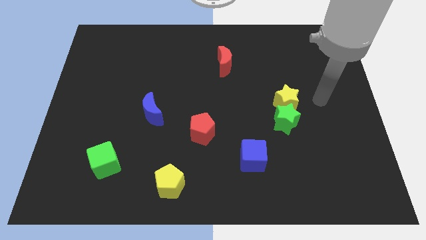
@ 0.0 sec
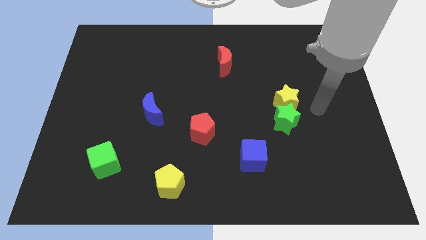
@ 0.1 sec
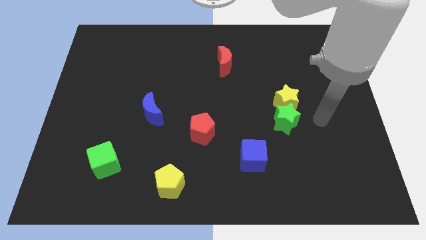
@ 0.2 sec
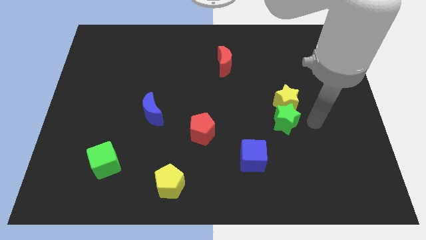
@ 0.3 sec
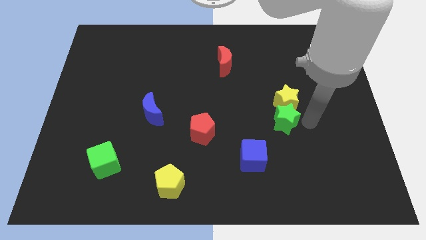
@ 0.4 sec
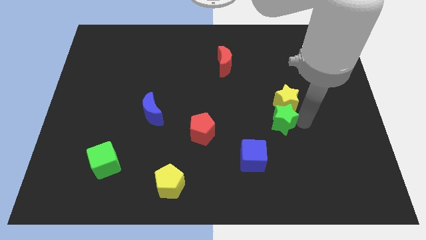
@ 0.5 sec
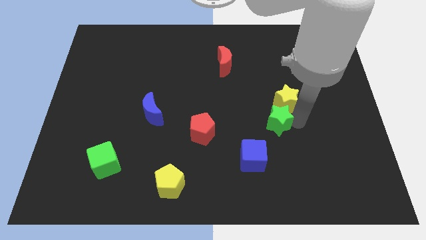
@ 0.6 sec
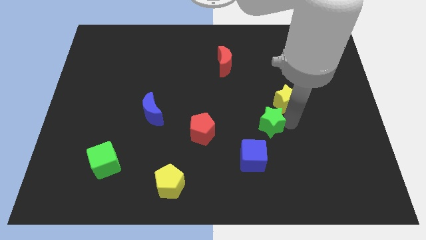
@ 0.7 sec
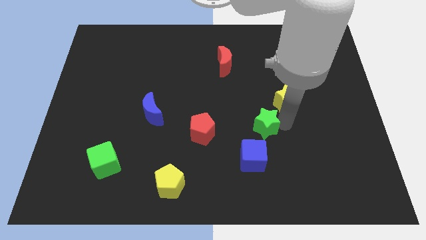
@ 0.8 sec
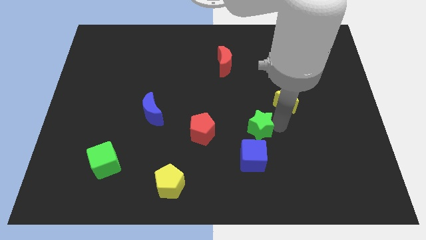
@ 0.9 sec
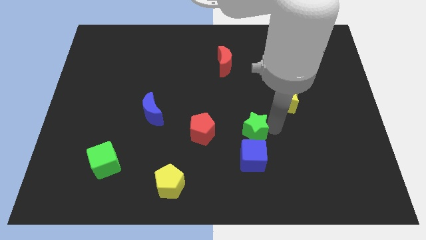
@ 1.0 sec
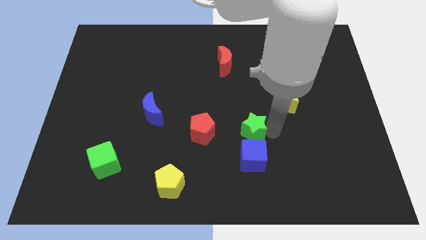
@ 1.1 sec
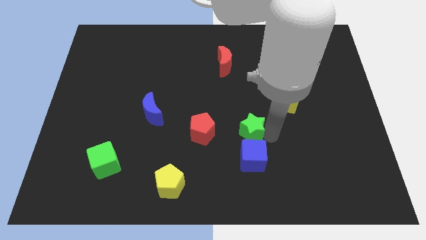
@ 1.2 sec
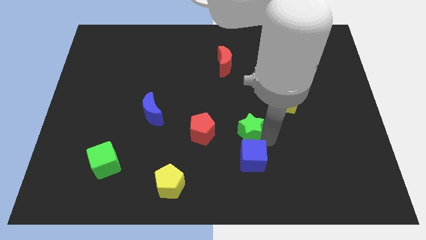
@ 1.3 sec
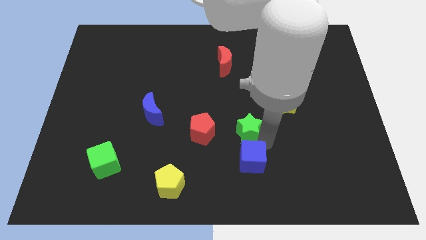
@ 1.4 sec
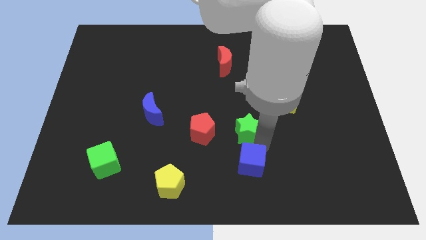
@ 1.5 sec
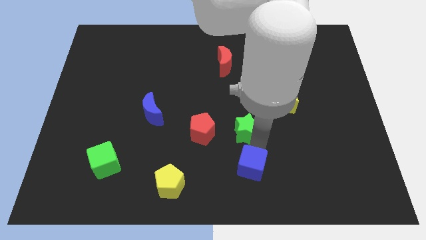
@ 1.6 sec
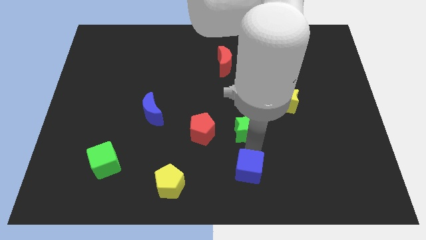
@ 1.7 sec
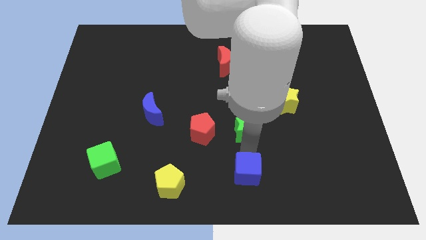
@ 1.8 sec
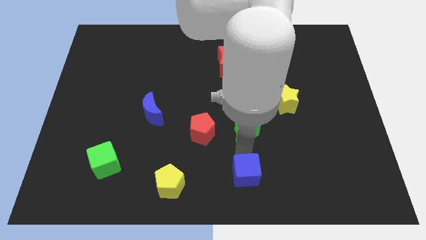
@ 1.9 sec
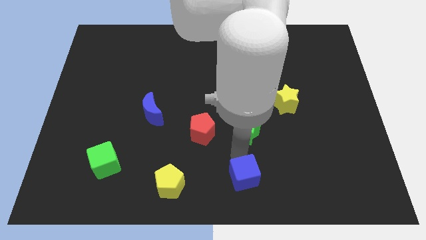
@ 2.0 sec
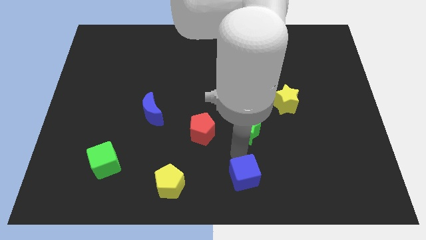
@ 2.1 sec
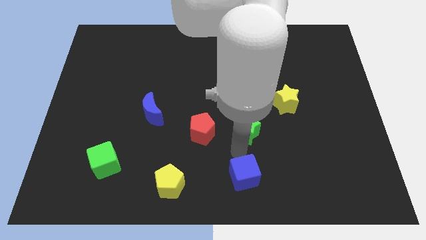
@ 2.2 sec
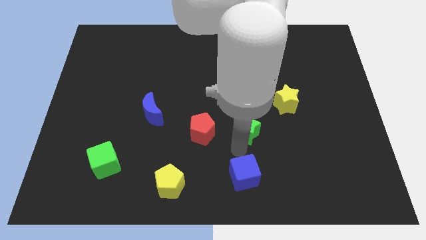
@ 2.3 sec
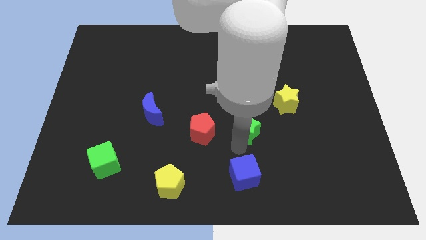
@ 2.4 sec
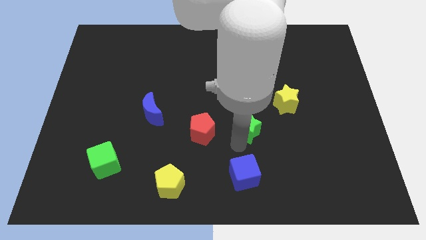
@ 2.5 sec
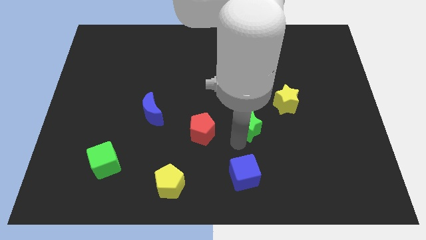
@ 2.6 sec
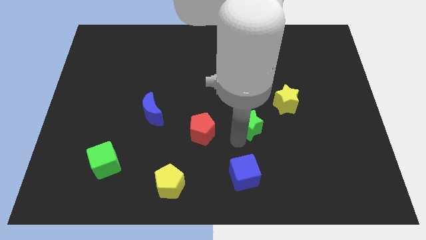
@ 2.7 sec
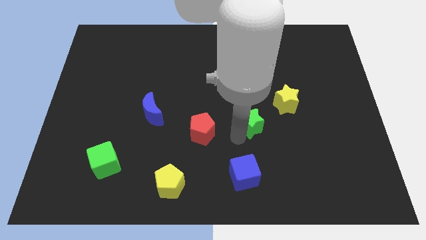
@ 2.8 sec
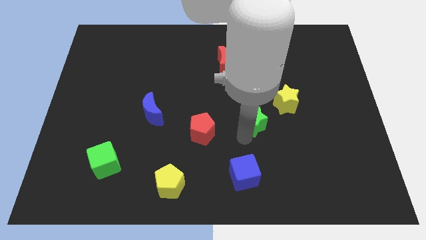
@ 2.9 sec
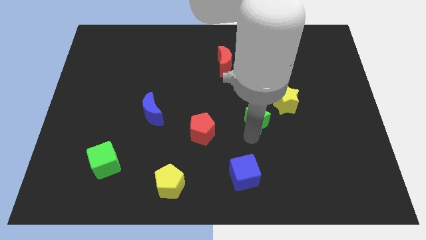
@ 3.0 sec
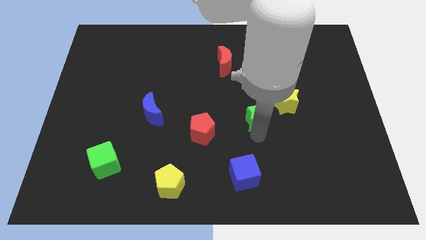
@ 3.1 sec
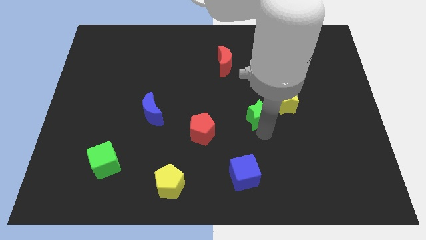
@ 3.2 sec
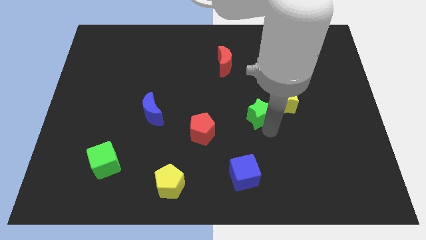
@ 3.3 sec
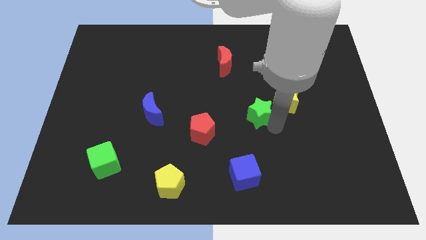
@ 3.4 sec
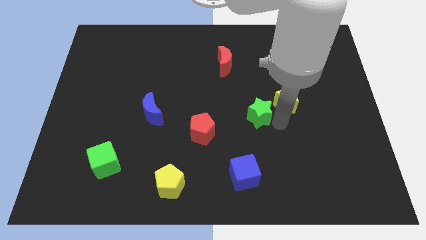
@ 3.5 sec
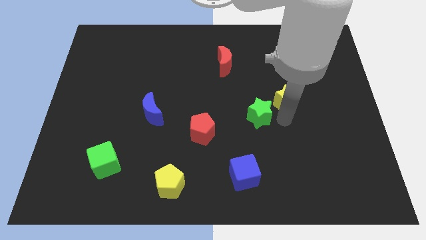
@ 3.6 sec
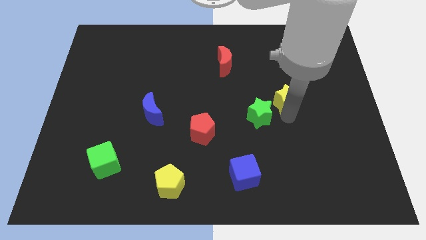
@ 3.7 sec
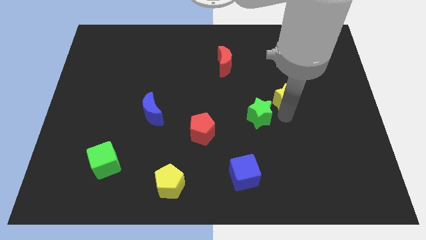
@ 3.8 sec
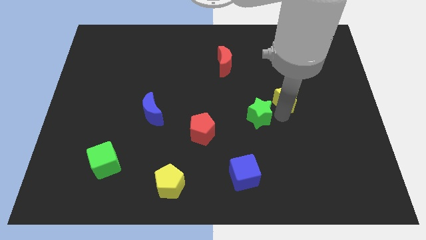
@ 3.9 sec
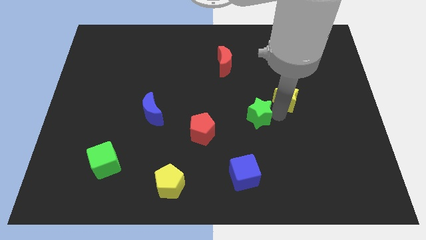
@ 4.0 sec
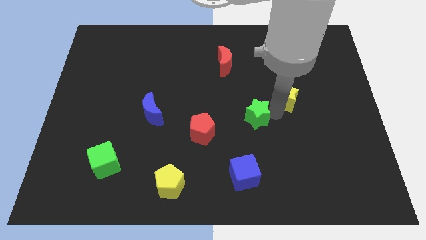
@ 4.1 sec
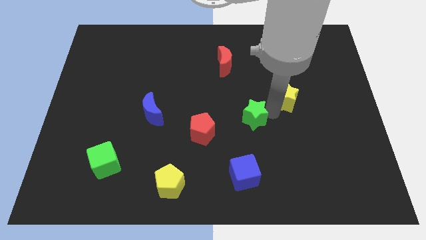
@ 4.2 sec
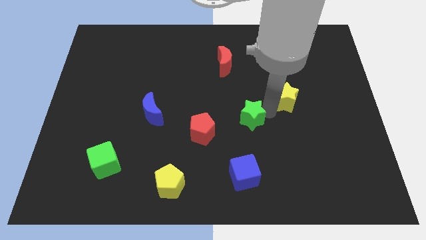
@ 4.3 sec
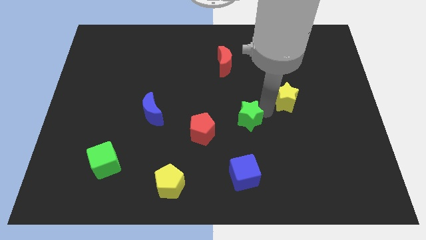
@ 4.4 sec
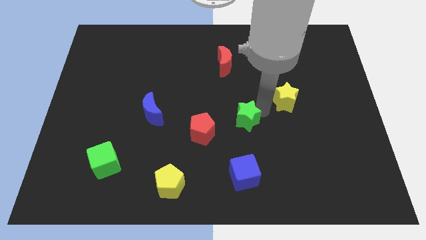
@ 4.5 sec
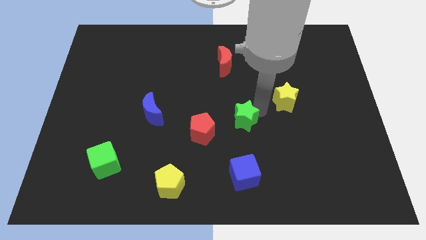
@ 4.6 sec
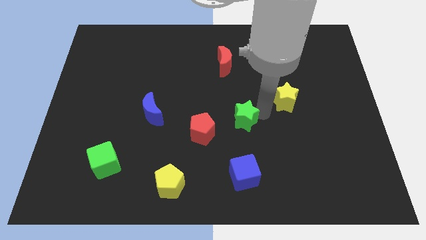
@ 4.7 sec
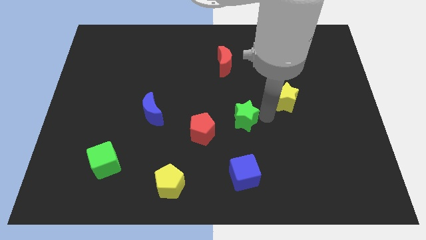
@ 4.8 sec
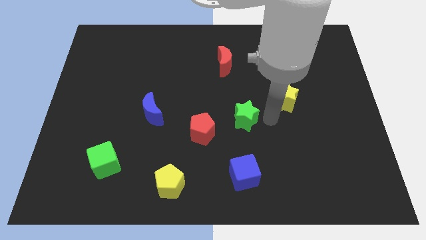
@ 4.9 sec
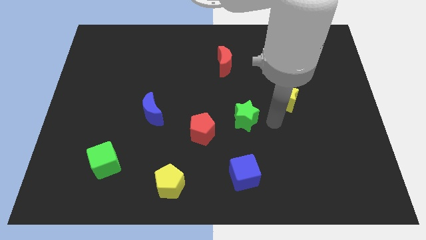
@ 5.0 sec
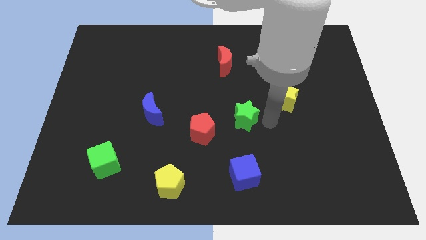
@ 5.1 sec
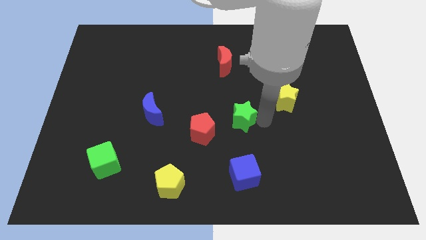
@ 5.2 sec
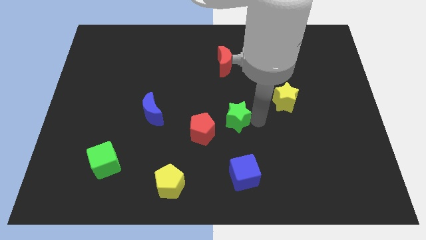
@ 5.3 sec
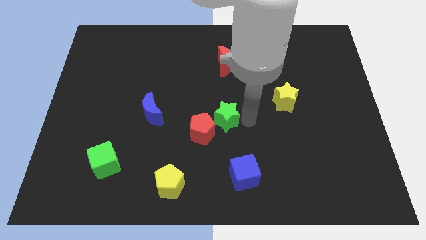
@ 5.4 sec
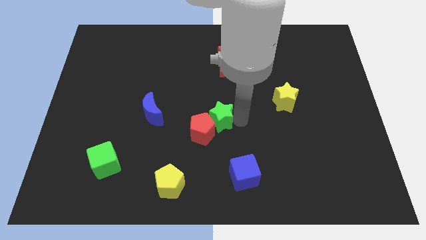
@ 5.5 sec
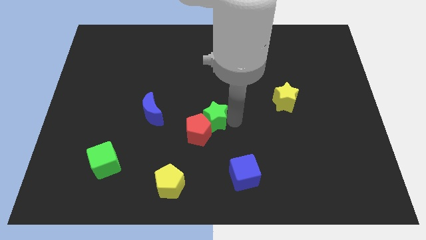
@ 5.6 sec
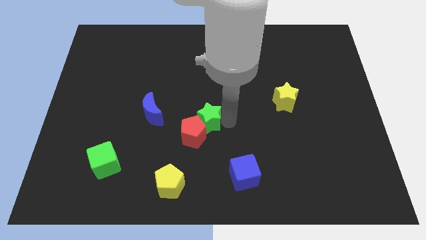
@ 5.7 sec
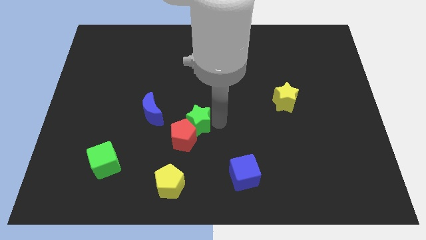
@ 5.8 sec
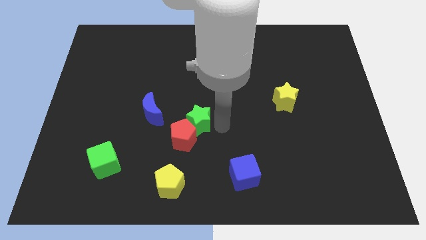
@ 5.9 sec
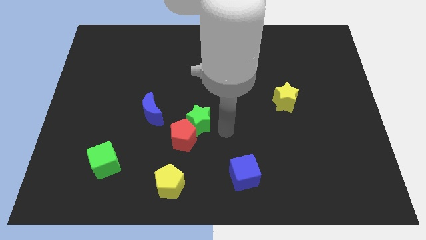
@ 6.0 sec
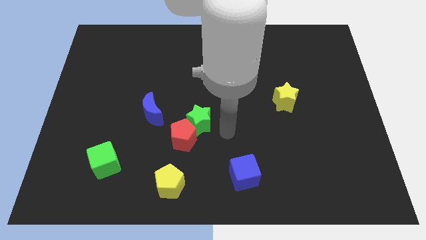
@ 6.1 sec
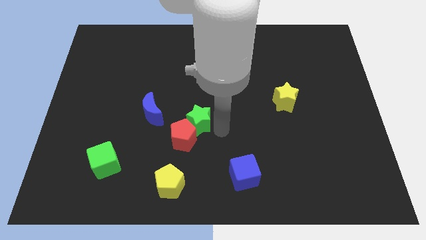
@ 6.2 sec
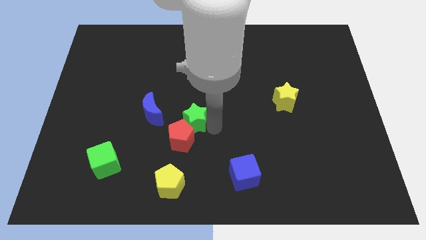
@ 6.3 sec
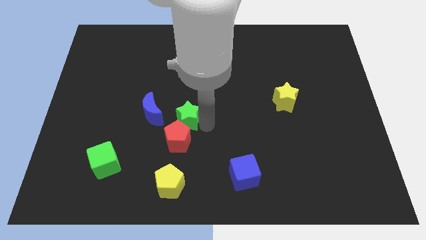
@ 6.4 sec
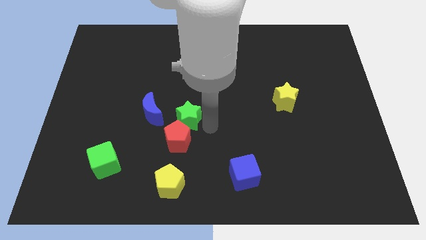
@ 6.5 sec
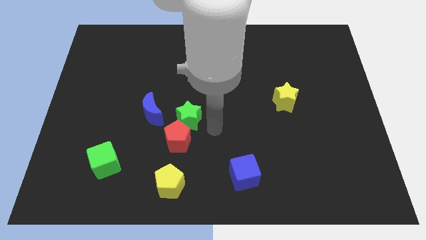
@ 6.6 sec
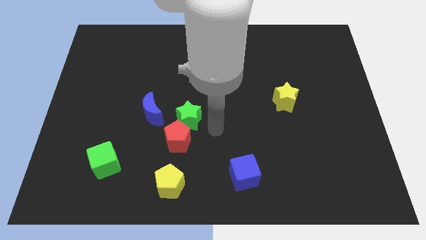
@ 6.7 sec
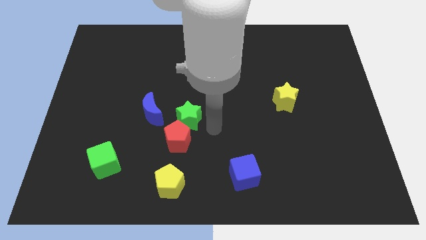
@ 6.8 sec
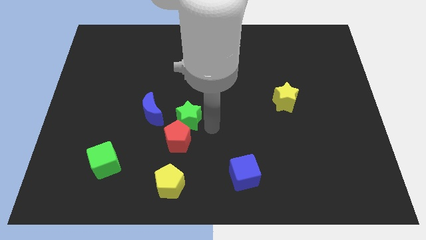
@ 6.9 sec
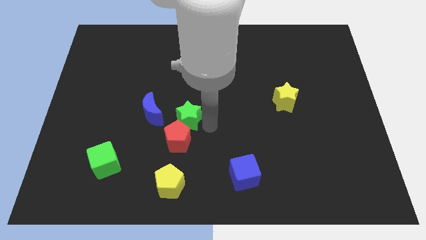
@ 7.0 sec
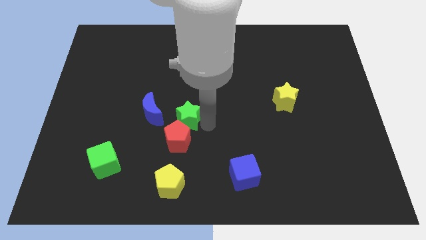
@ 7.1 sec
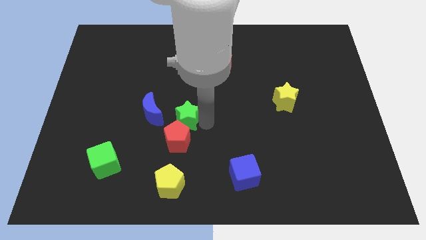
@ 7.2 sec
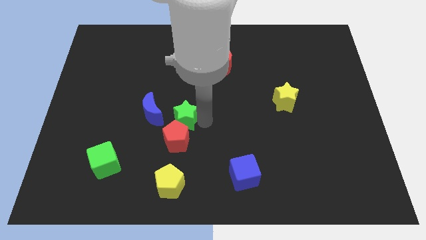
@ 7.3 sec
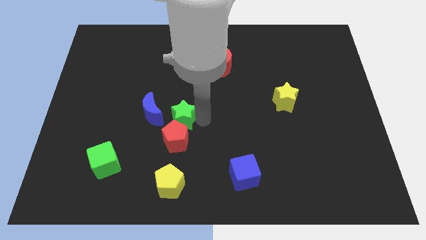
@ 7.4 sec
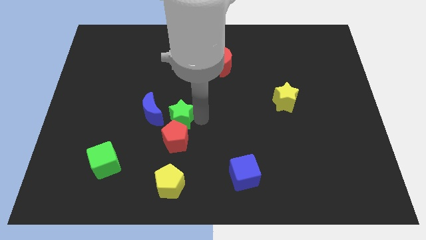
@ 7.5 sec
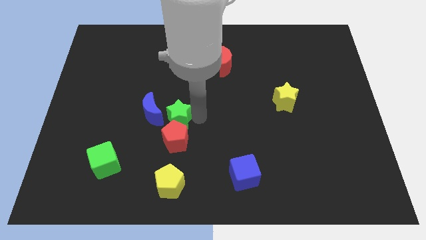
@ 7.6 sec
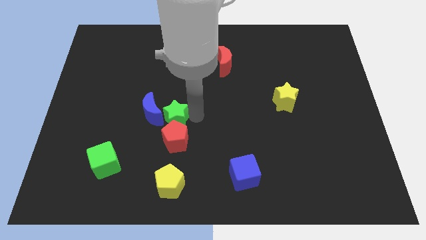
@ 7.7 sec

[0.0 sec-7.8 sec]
push the green star next to the blue moon
